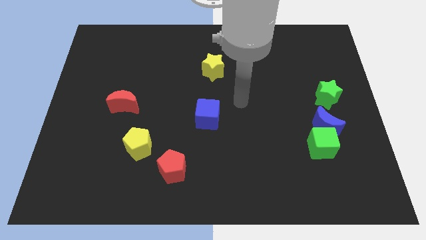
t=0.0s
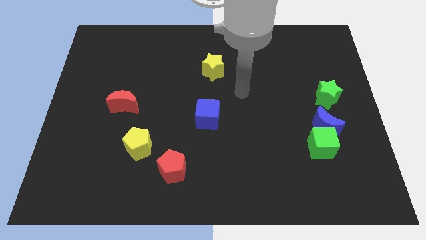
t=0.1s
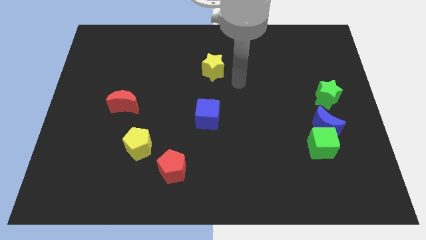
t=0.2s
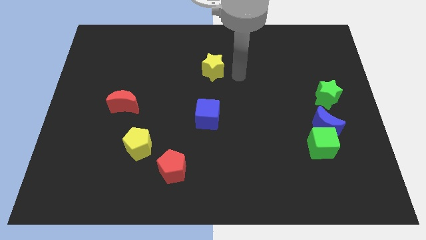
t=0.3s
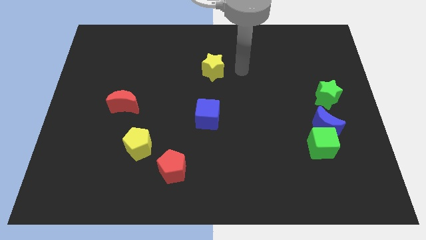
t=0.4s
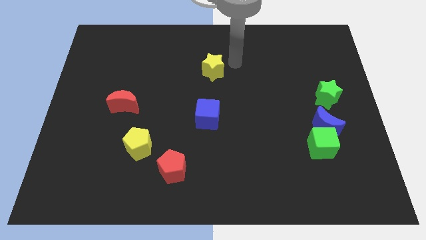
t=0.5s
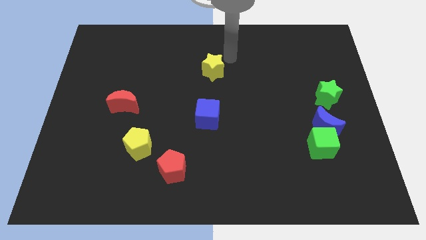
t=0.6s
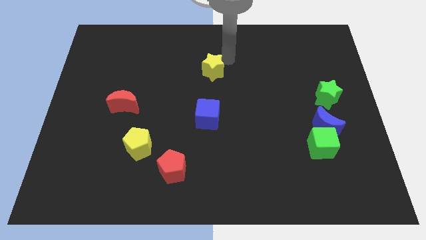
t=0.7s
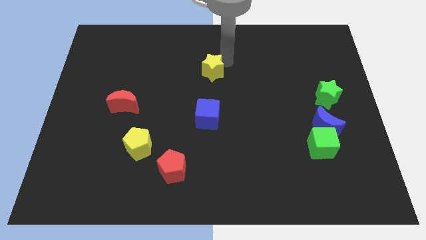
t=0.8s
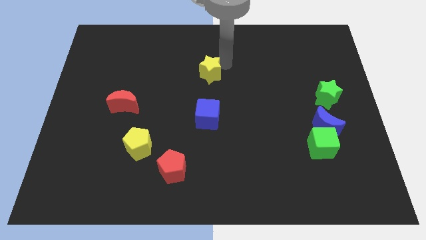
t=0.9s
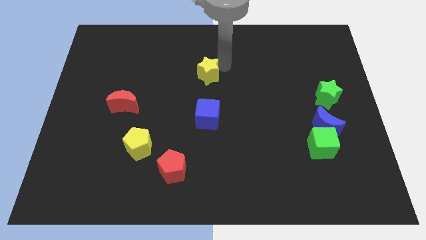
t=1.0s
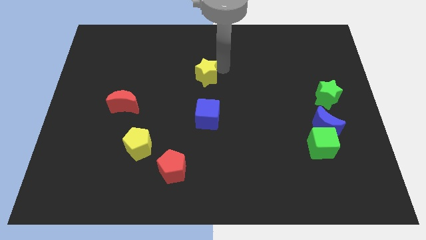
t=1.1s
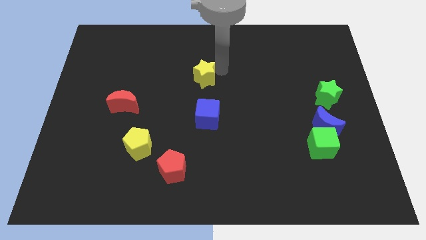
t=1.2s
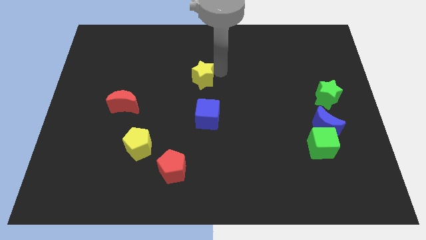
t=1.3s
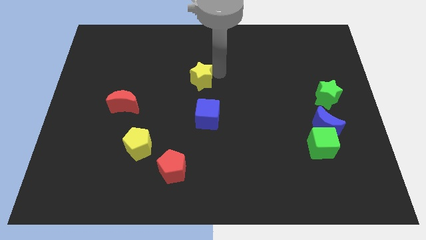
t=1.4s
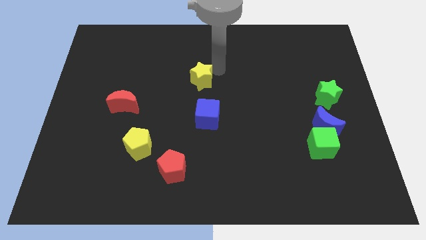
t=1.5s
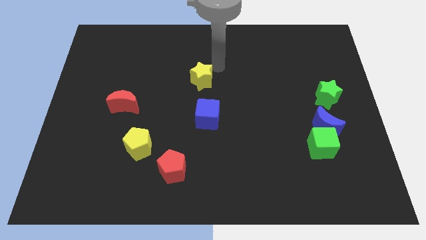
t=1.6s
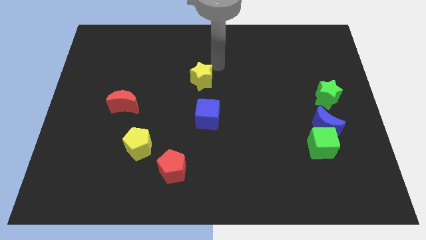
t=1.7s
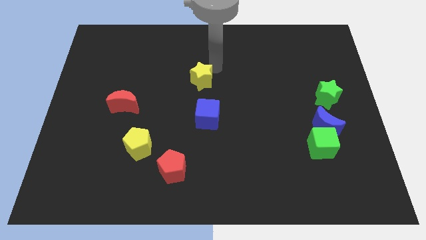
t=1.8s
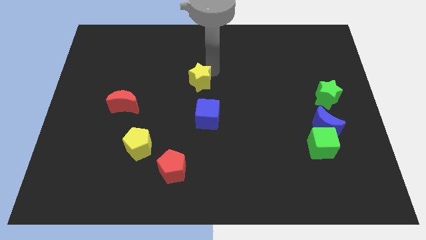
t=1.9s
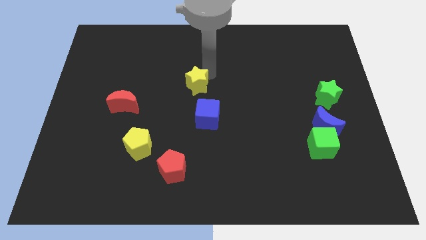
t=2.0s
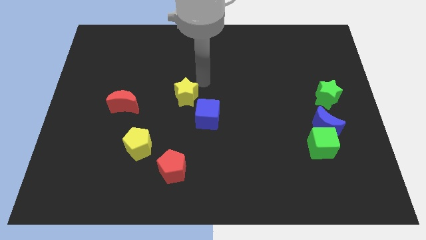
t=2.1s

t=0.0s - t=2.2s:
push the yellow star a little down and left

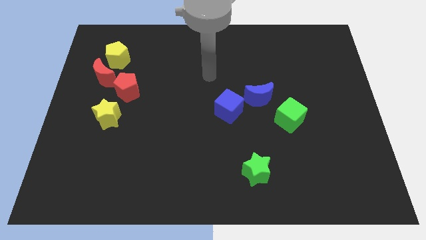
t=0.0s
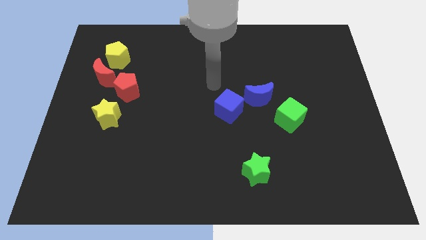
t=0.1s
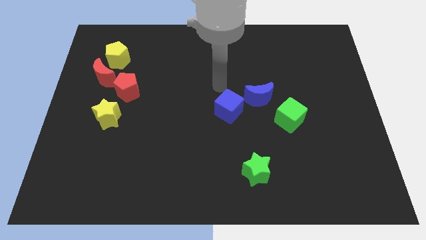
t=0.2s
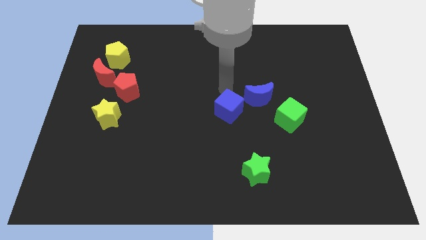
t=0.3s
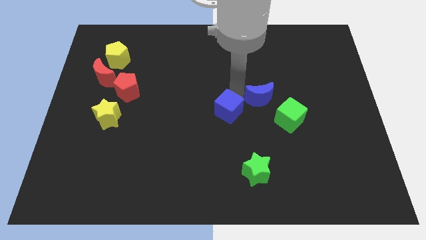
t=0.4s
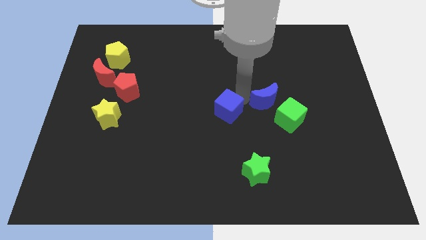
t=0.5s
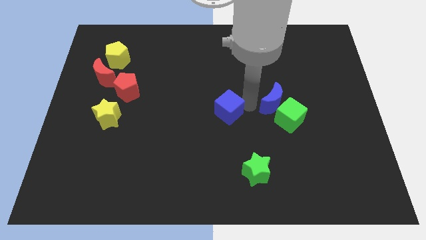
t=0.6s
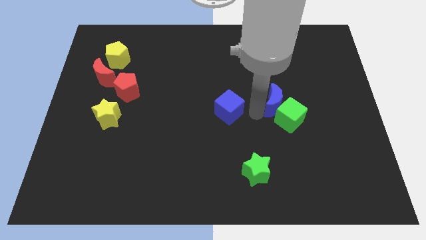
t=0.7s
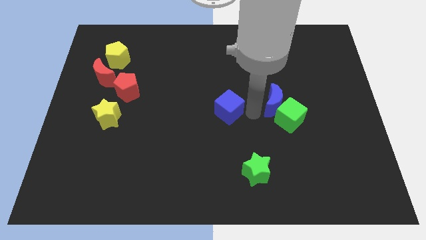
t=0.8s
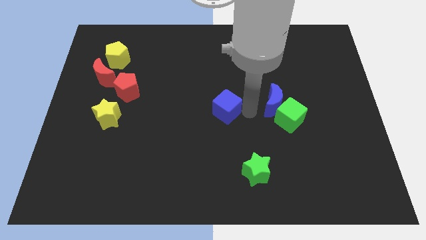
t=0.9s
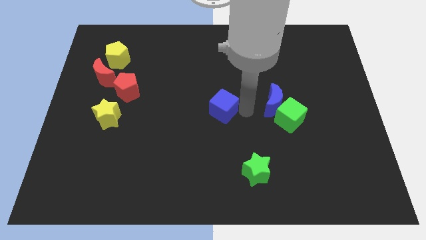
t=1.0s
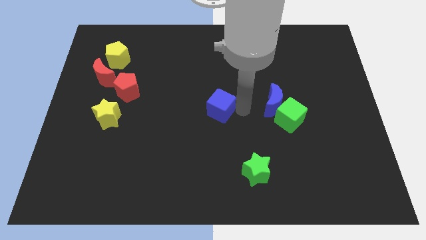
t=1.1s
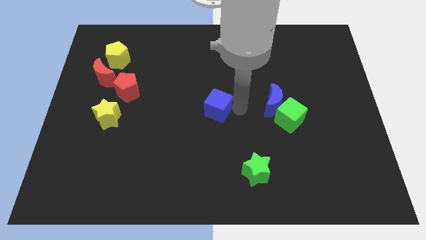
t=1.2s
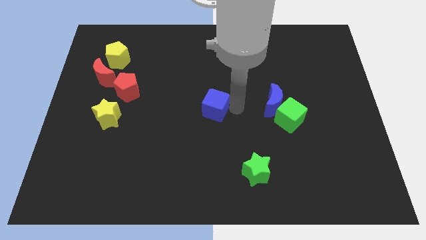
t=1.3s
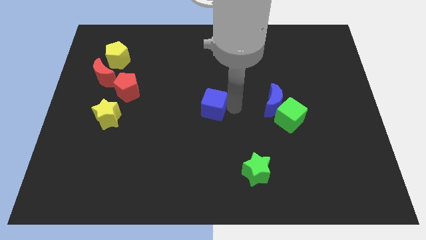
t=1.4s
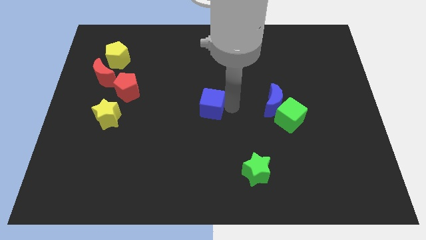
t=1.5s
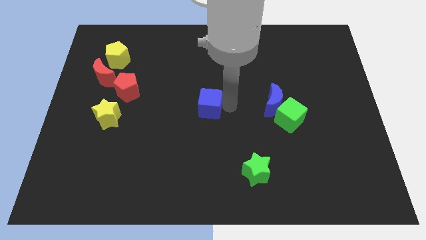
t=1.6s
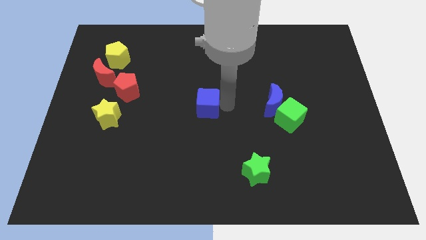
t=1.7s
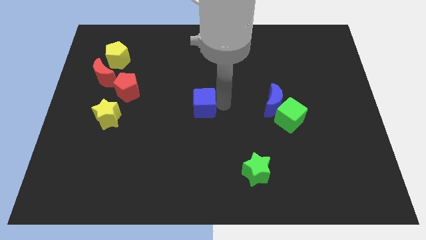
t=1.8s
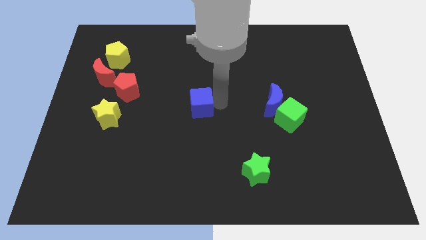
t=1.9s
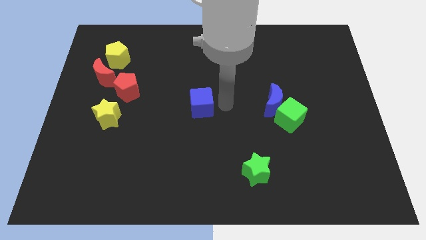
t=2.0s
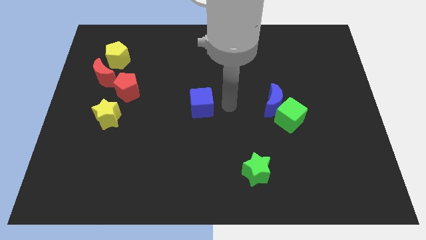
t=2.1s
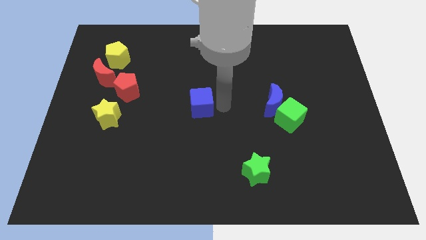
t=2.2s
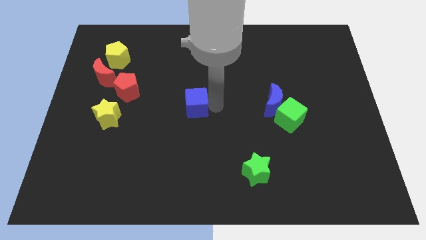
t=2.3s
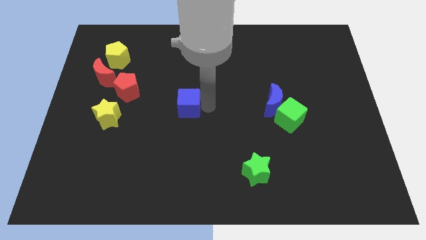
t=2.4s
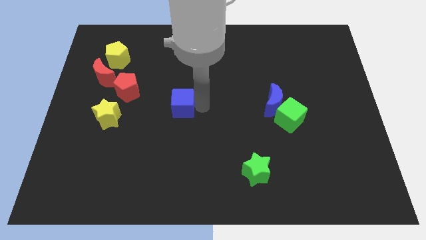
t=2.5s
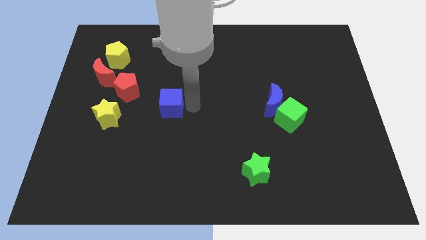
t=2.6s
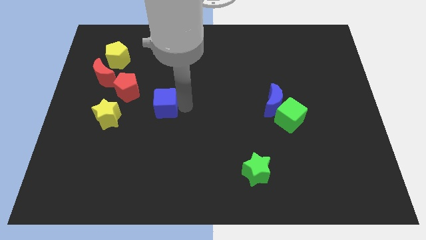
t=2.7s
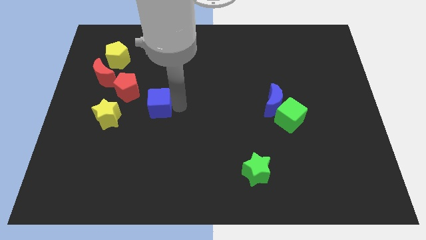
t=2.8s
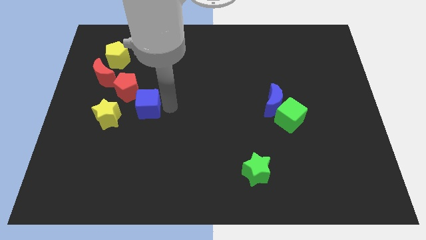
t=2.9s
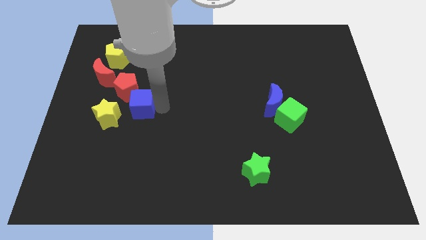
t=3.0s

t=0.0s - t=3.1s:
move the blue cube to the left

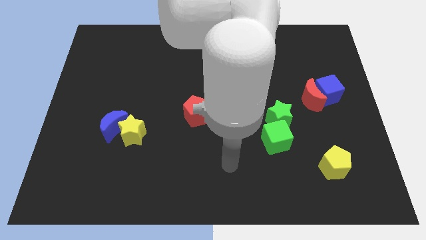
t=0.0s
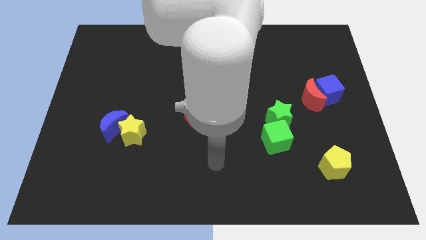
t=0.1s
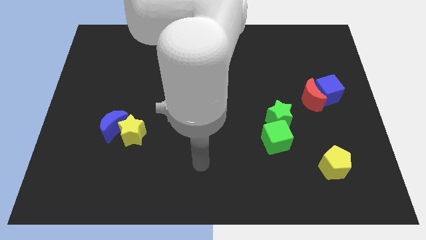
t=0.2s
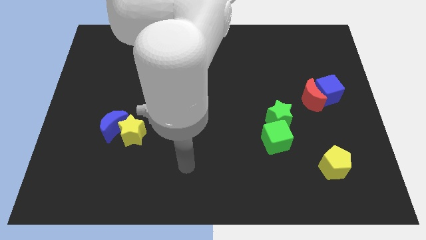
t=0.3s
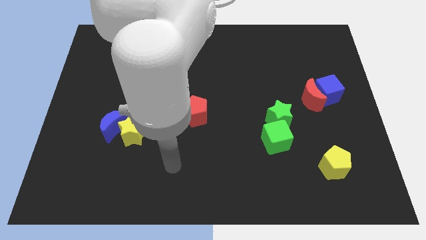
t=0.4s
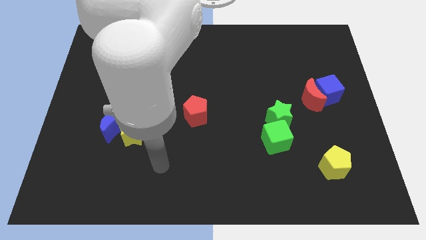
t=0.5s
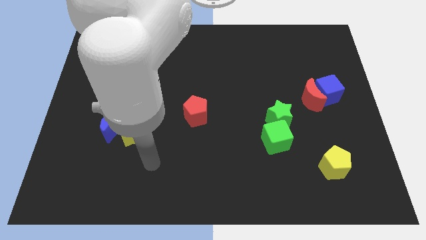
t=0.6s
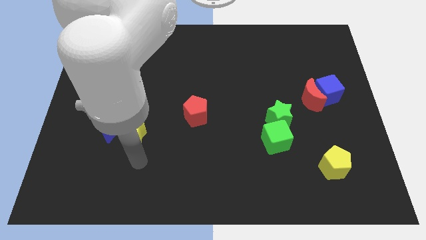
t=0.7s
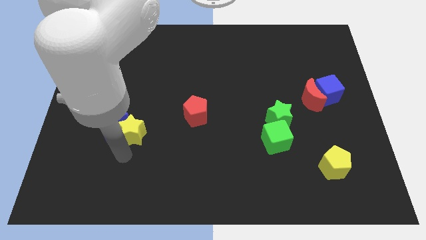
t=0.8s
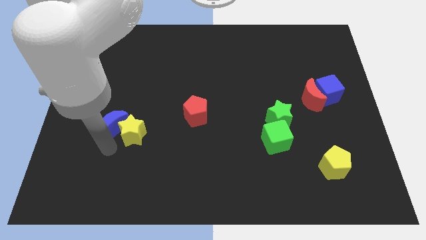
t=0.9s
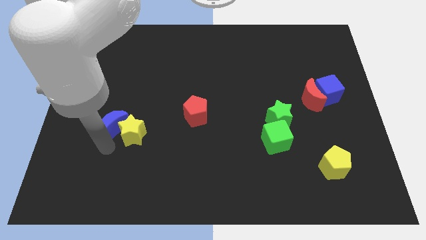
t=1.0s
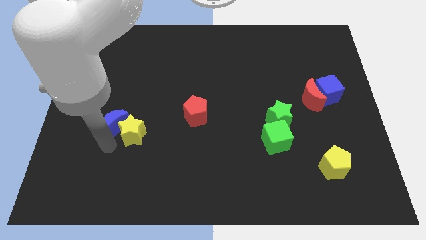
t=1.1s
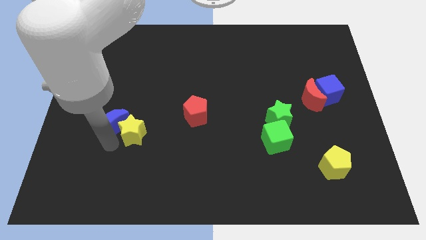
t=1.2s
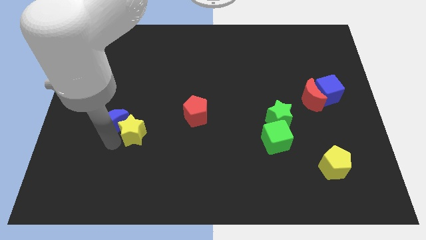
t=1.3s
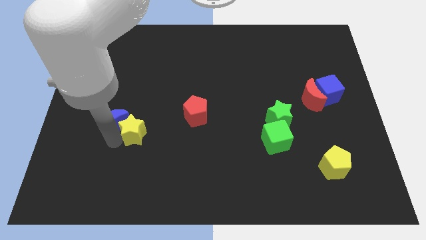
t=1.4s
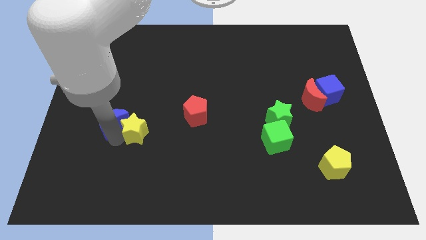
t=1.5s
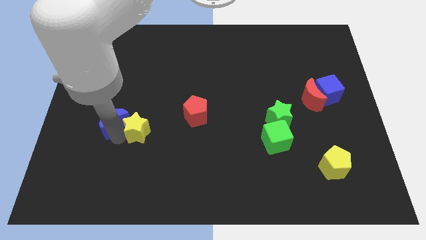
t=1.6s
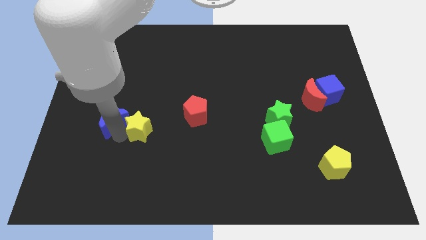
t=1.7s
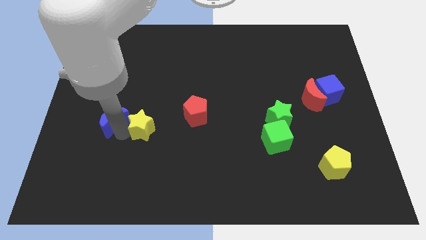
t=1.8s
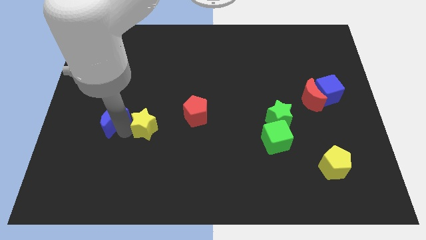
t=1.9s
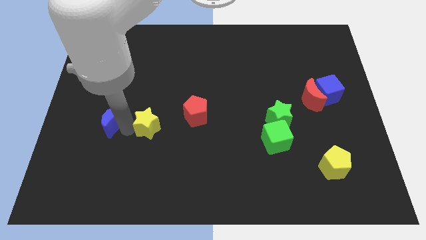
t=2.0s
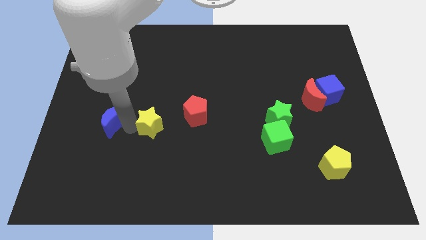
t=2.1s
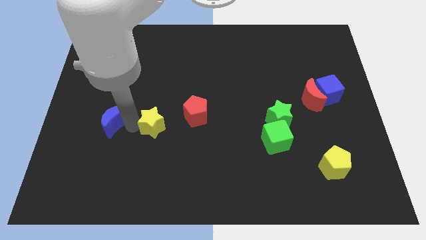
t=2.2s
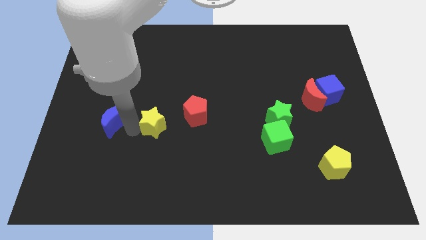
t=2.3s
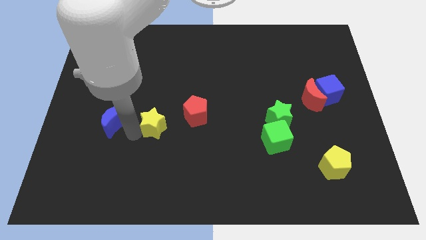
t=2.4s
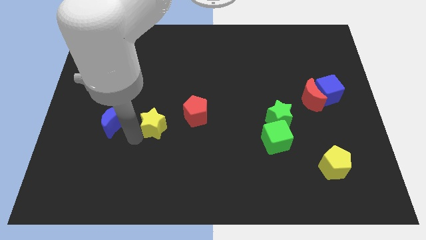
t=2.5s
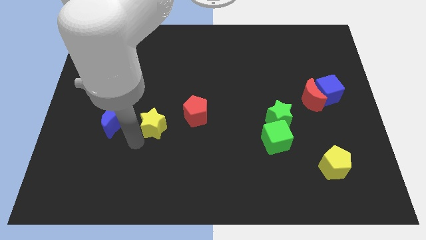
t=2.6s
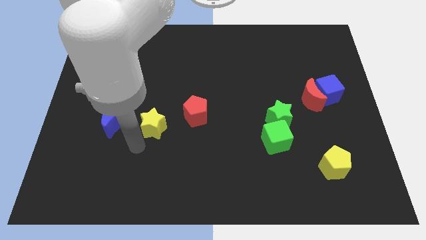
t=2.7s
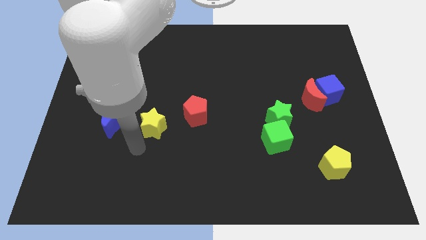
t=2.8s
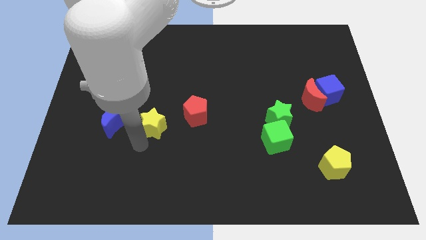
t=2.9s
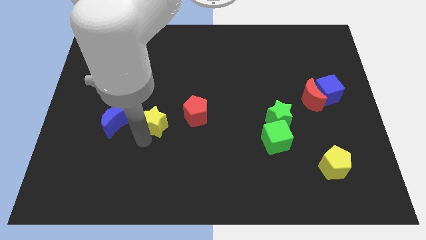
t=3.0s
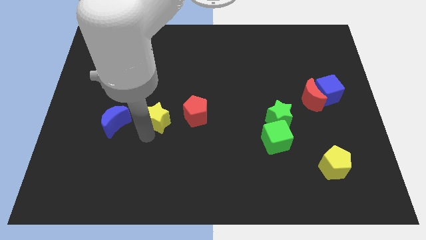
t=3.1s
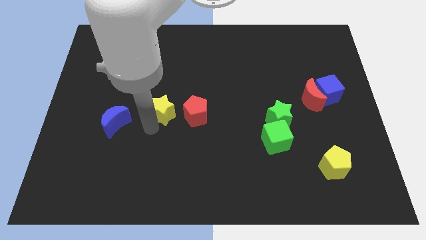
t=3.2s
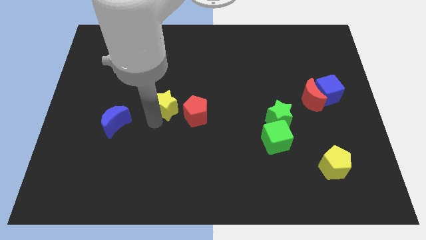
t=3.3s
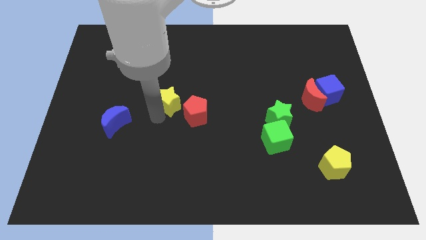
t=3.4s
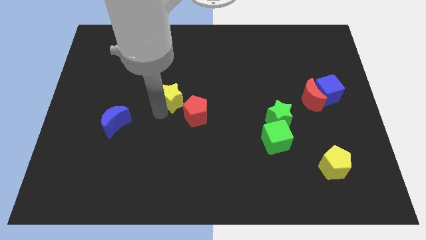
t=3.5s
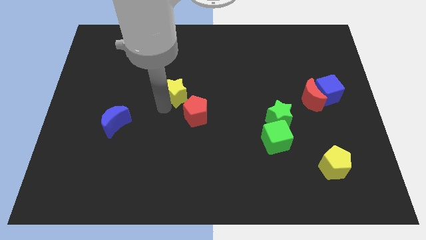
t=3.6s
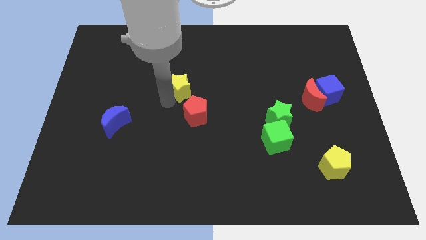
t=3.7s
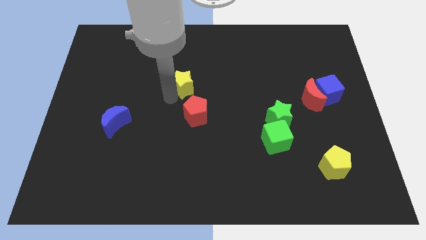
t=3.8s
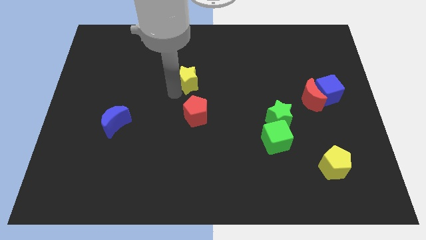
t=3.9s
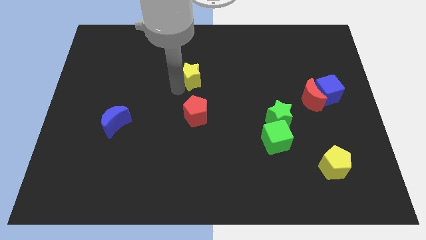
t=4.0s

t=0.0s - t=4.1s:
push the yellow star up and then right
